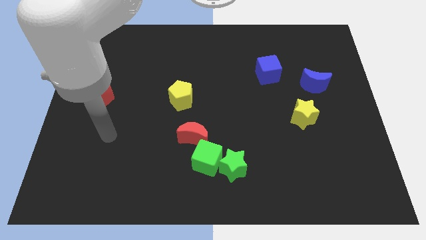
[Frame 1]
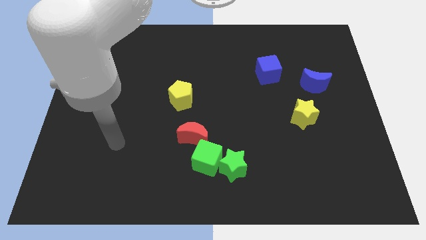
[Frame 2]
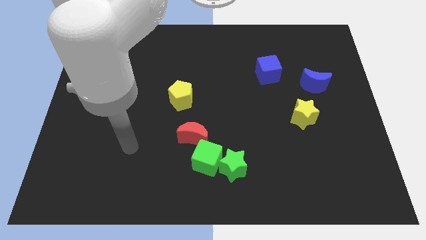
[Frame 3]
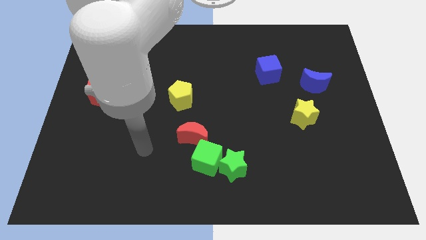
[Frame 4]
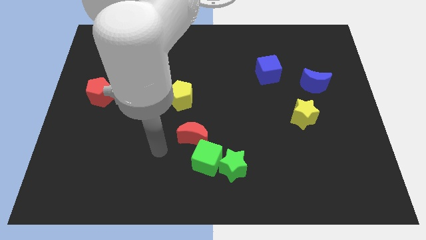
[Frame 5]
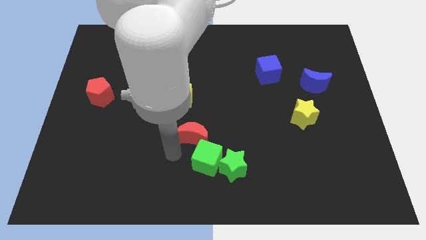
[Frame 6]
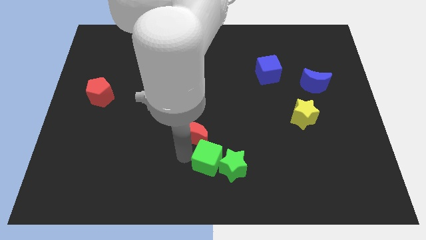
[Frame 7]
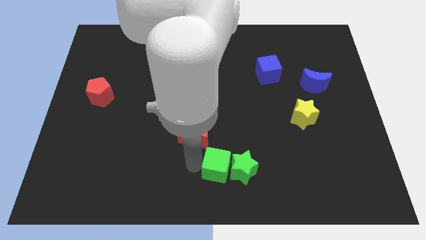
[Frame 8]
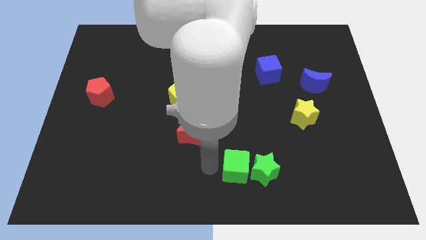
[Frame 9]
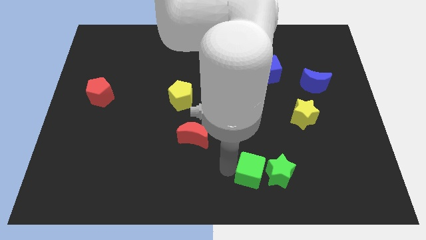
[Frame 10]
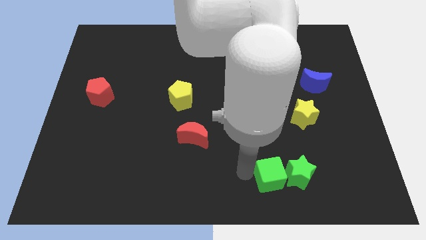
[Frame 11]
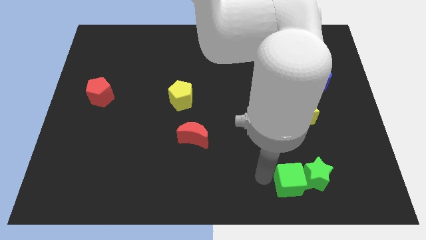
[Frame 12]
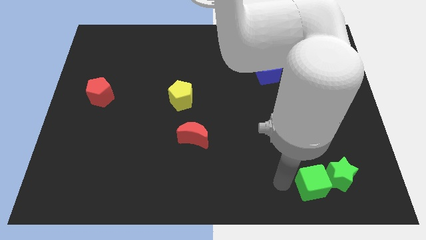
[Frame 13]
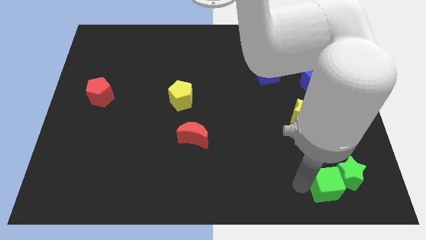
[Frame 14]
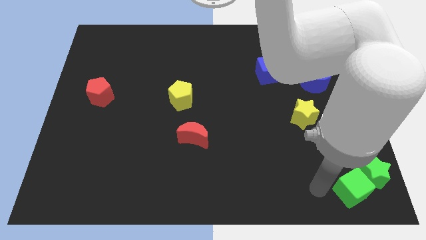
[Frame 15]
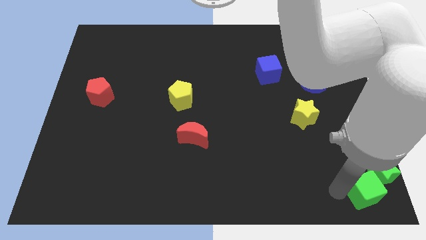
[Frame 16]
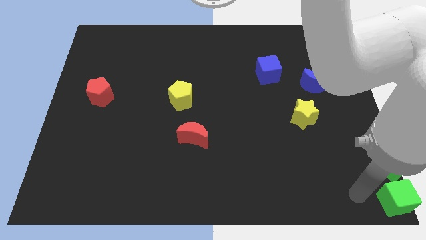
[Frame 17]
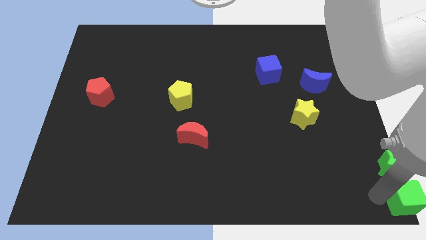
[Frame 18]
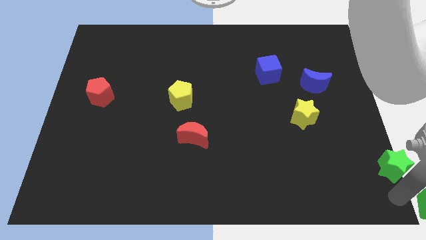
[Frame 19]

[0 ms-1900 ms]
move the green star away from the green cube

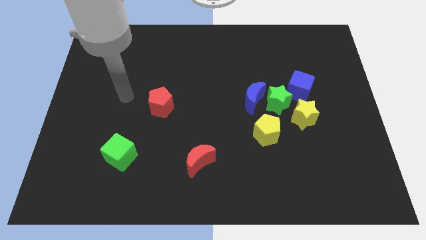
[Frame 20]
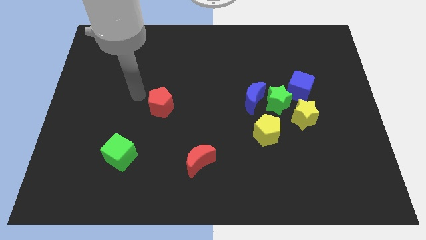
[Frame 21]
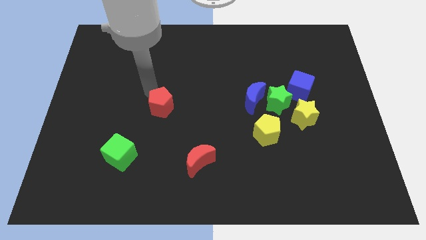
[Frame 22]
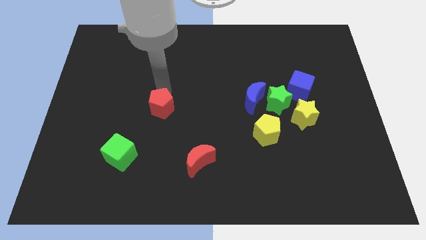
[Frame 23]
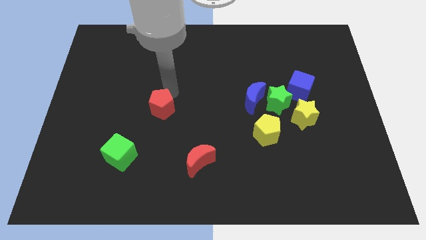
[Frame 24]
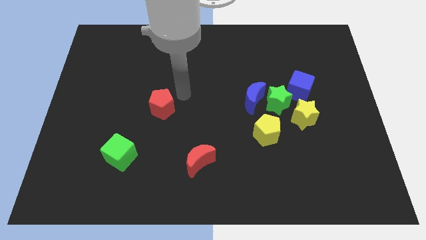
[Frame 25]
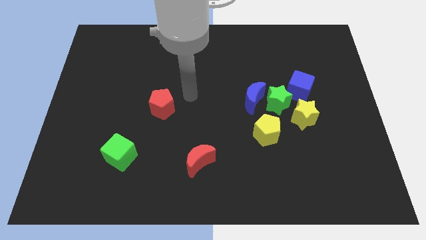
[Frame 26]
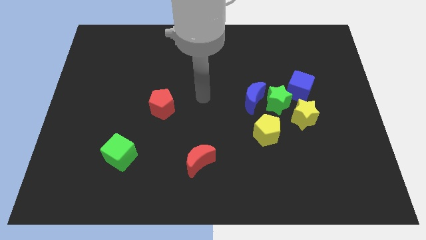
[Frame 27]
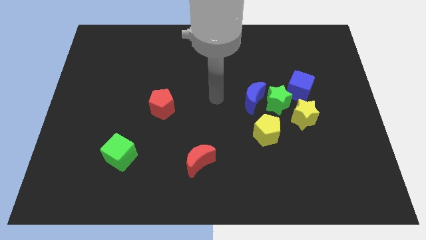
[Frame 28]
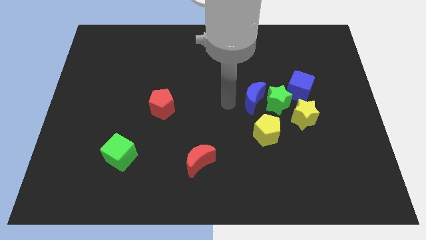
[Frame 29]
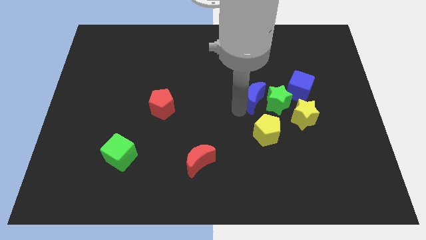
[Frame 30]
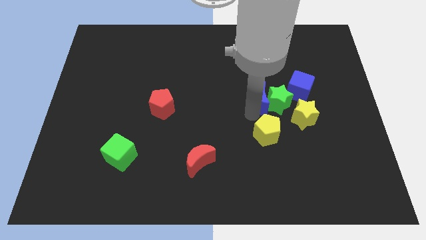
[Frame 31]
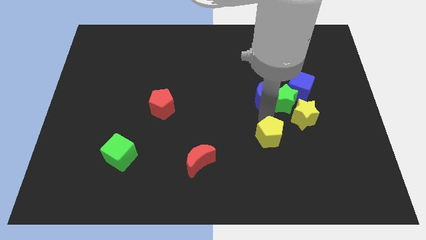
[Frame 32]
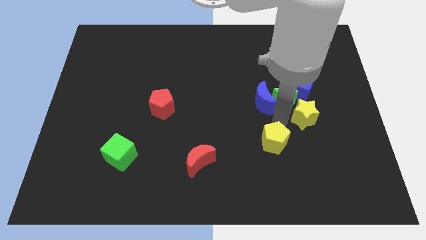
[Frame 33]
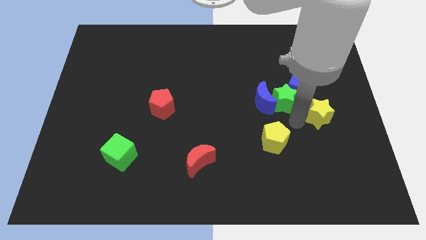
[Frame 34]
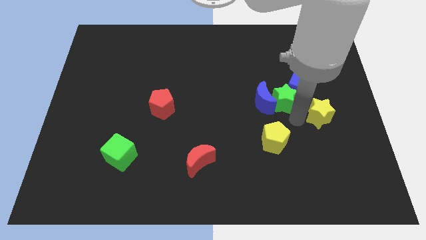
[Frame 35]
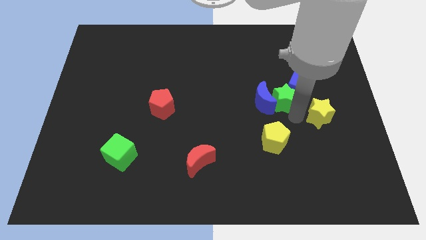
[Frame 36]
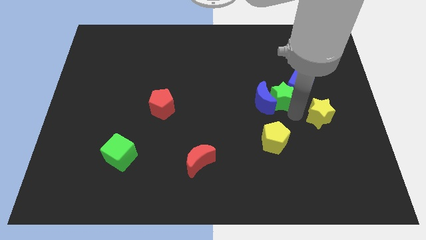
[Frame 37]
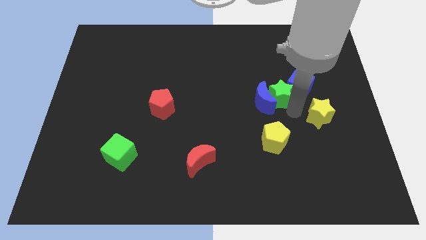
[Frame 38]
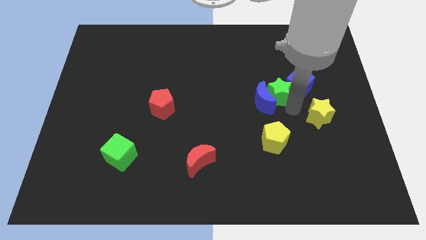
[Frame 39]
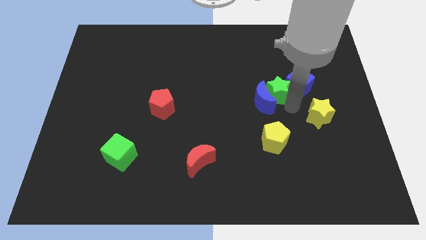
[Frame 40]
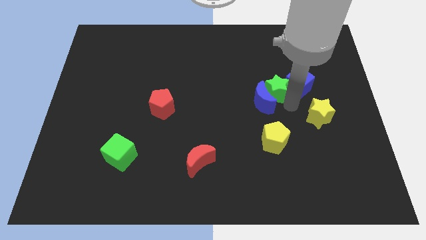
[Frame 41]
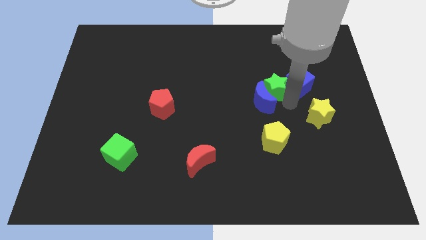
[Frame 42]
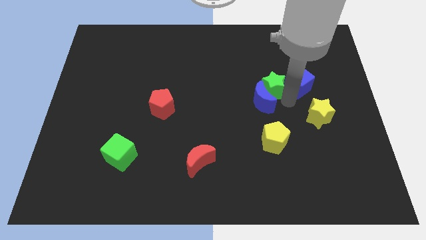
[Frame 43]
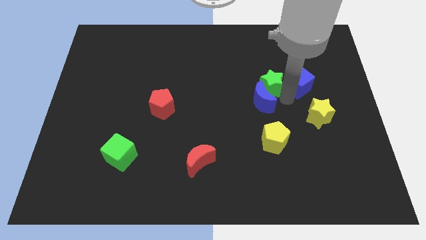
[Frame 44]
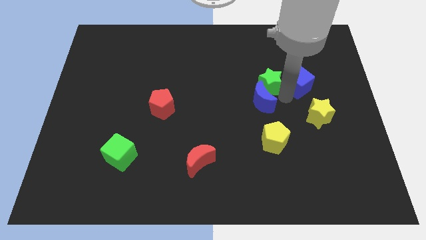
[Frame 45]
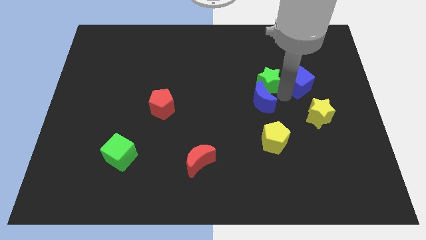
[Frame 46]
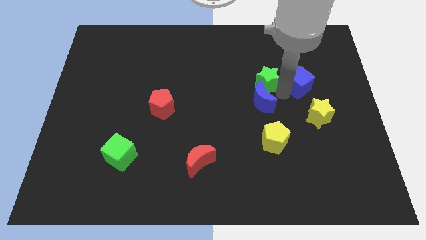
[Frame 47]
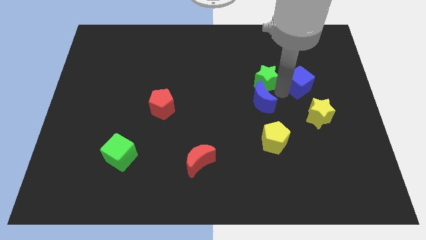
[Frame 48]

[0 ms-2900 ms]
pull the green star apart from the group

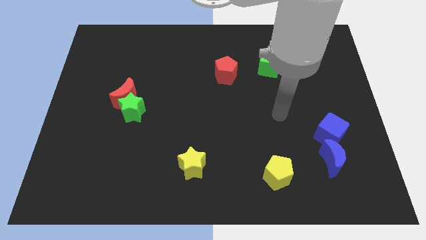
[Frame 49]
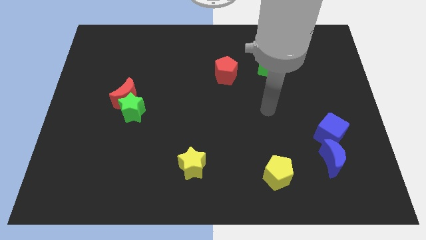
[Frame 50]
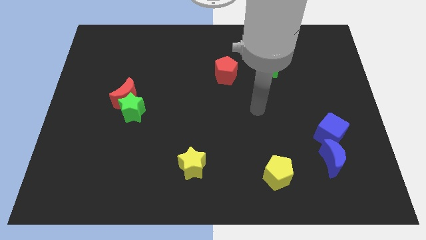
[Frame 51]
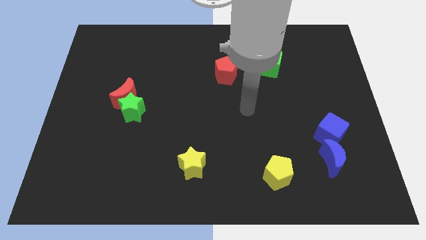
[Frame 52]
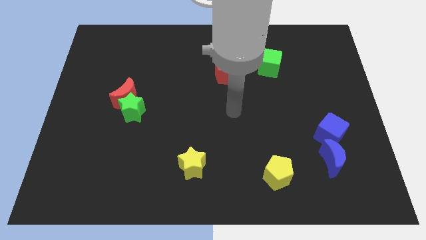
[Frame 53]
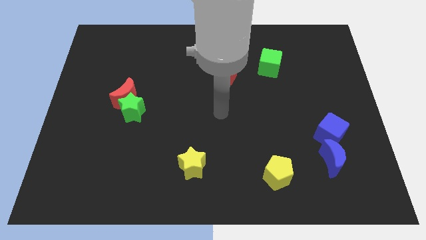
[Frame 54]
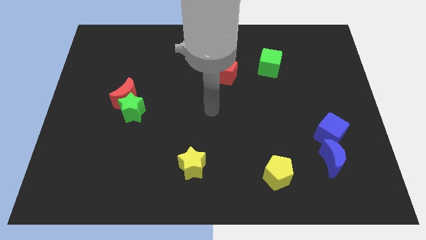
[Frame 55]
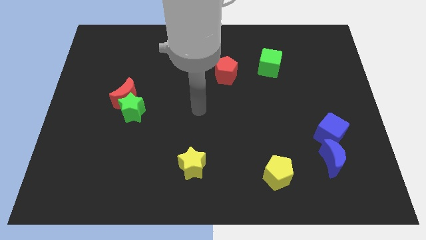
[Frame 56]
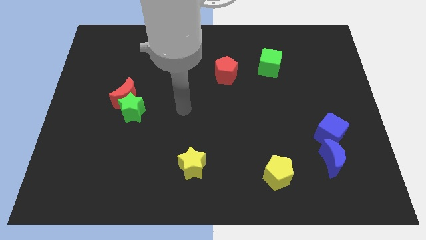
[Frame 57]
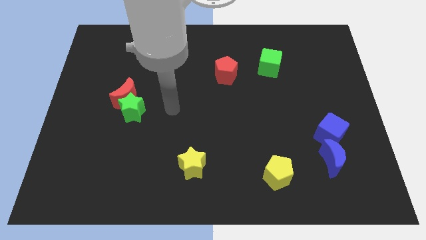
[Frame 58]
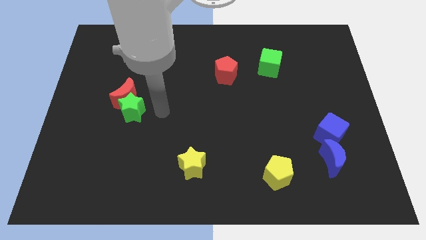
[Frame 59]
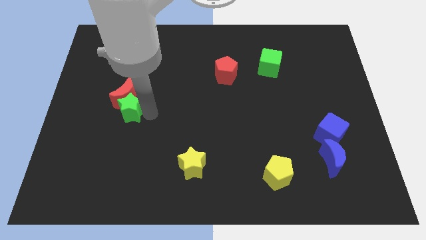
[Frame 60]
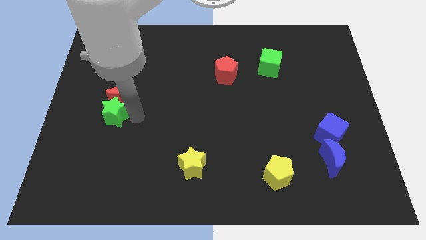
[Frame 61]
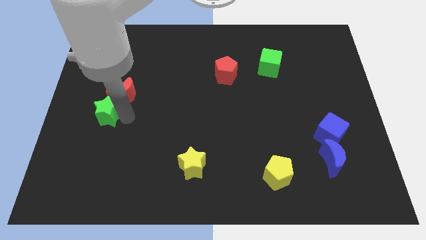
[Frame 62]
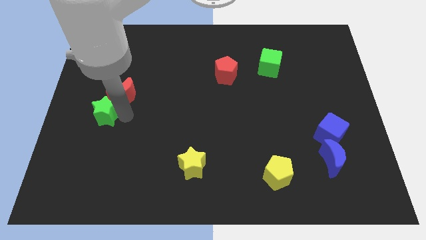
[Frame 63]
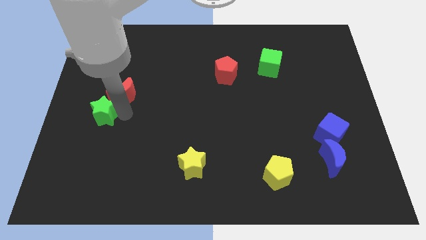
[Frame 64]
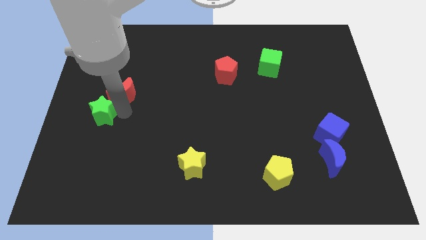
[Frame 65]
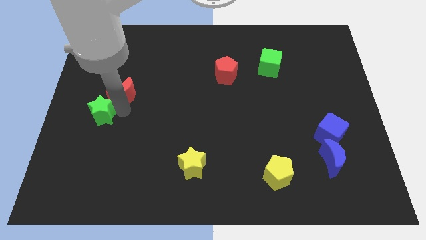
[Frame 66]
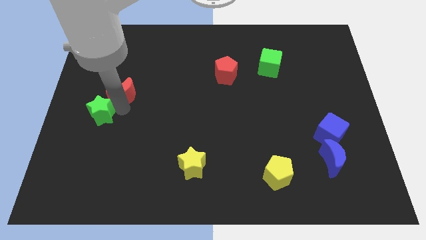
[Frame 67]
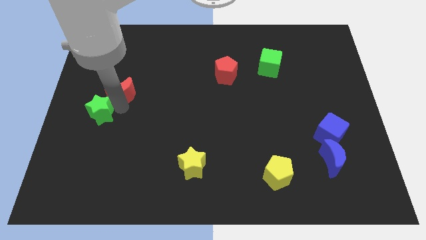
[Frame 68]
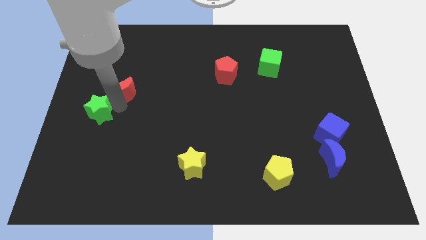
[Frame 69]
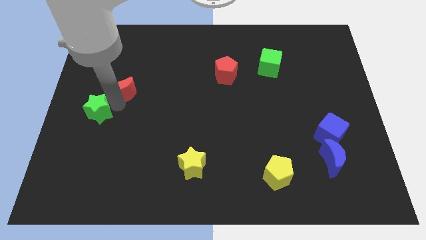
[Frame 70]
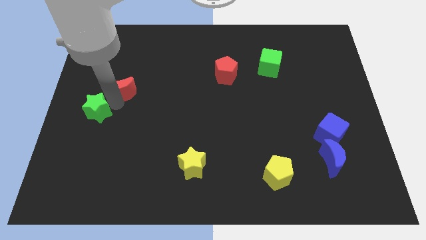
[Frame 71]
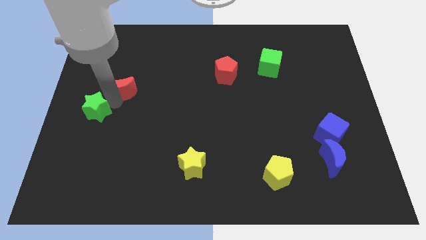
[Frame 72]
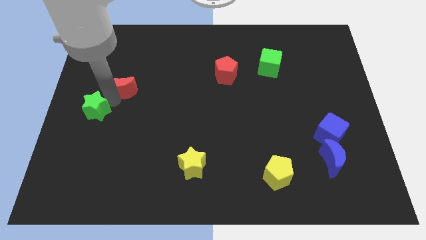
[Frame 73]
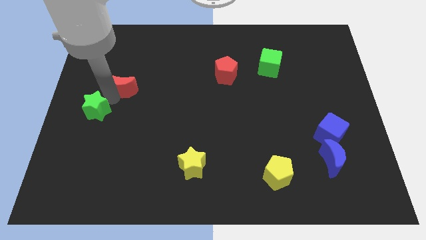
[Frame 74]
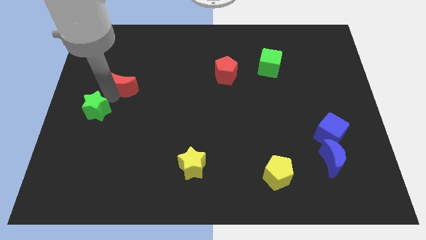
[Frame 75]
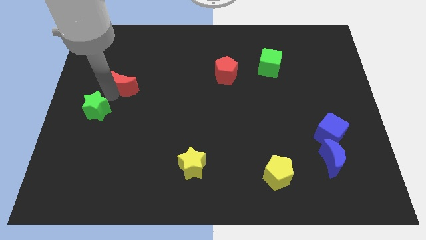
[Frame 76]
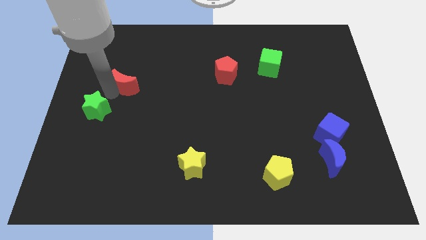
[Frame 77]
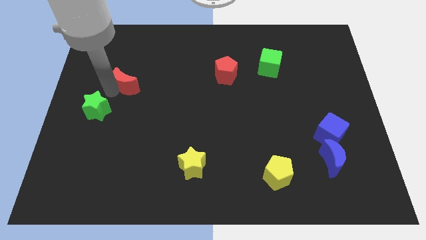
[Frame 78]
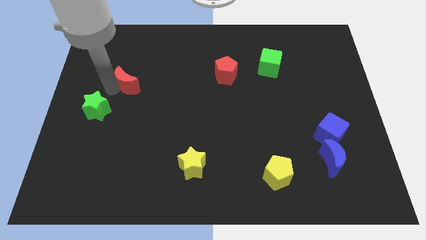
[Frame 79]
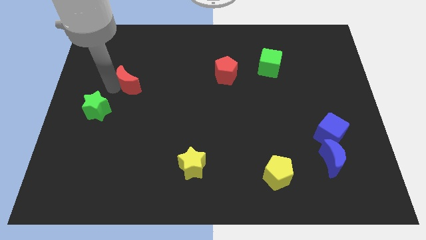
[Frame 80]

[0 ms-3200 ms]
separate the red moon from the green star

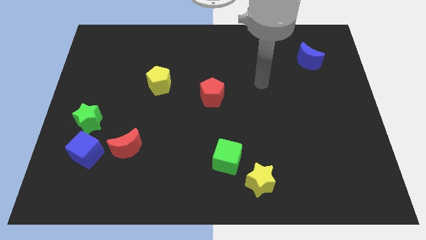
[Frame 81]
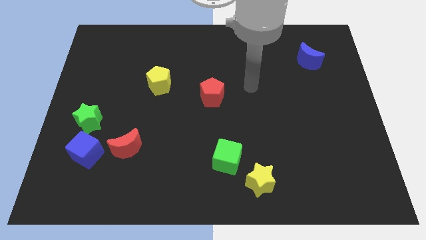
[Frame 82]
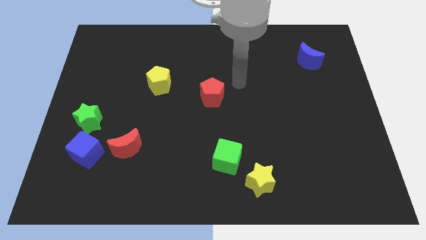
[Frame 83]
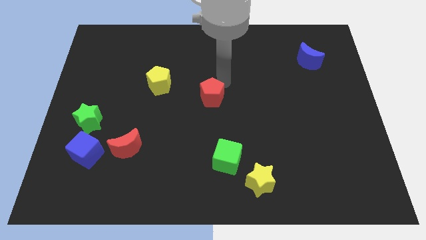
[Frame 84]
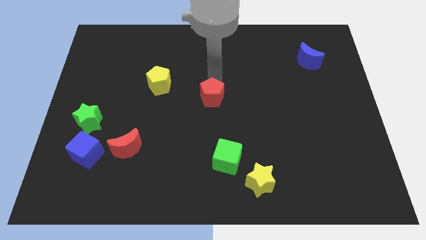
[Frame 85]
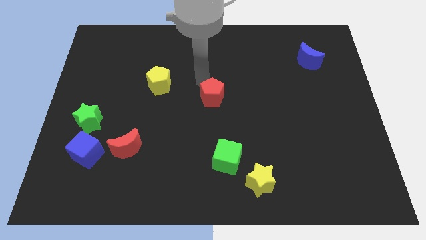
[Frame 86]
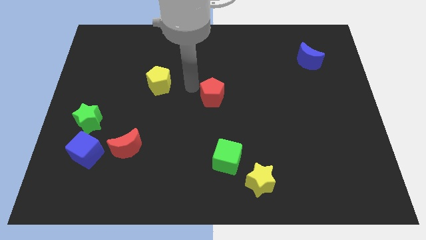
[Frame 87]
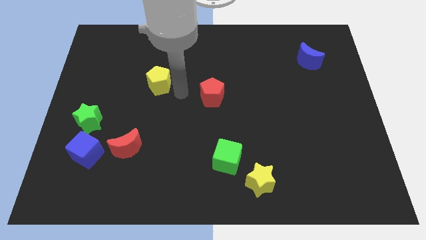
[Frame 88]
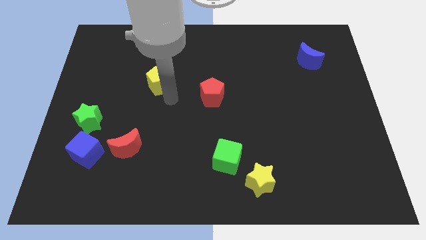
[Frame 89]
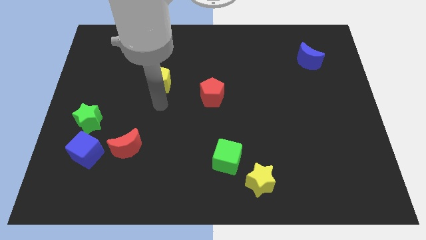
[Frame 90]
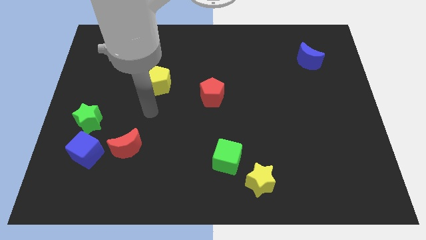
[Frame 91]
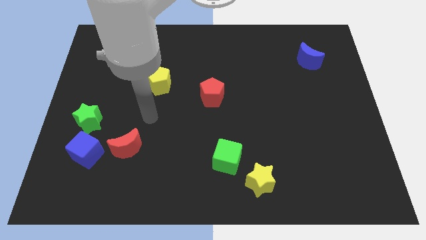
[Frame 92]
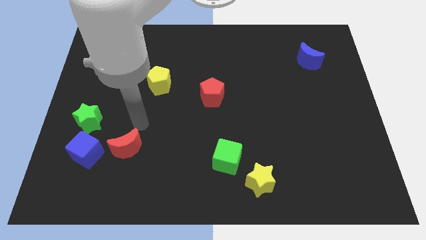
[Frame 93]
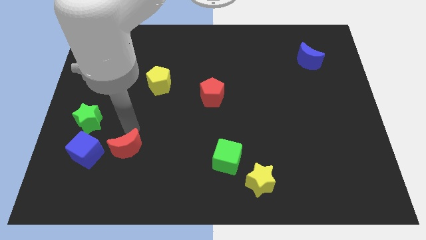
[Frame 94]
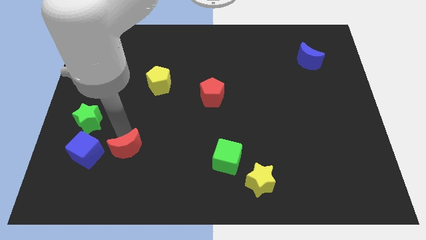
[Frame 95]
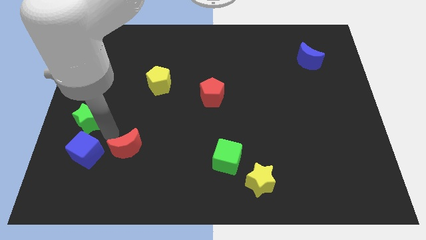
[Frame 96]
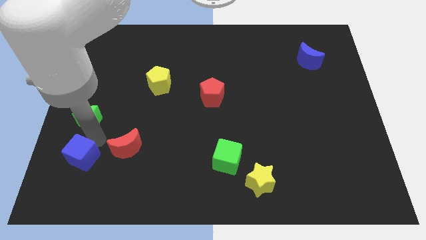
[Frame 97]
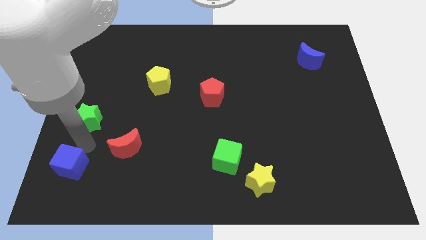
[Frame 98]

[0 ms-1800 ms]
separate the green star from the blue cube
